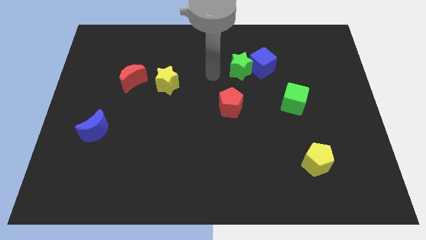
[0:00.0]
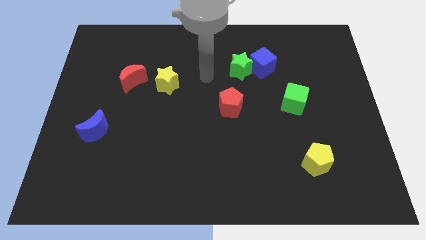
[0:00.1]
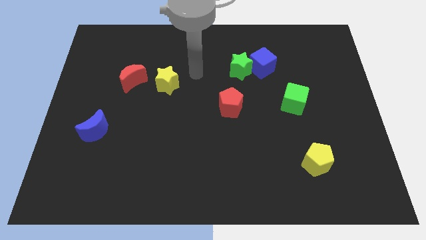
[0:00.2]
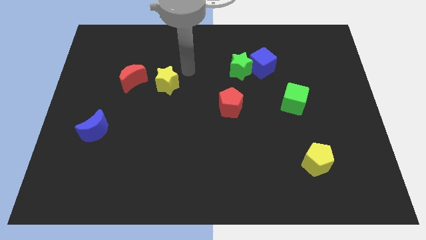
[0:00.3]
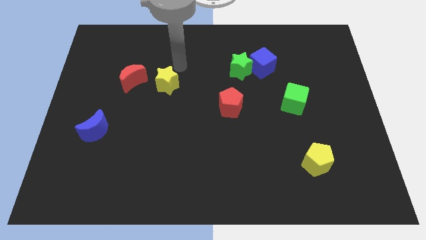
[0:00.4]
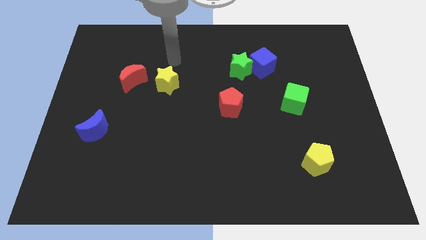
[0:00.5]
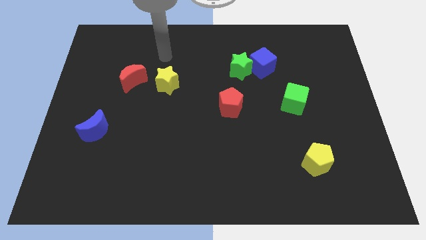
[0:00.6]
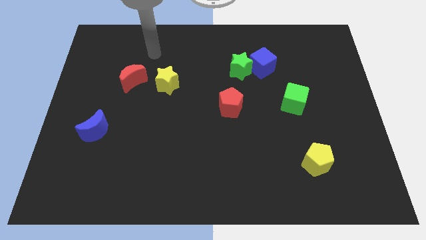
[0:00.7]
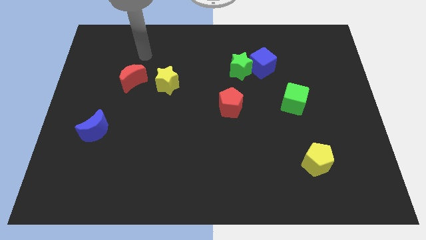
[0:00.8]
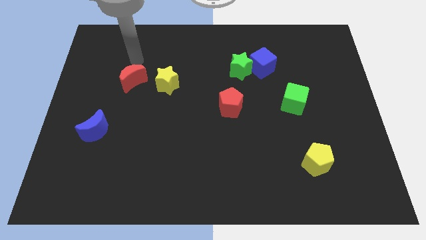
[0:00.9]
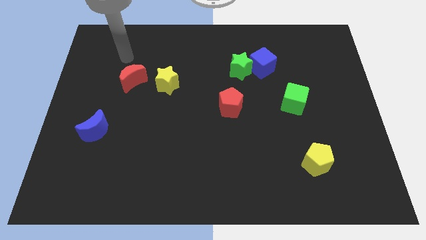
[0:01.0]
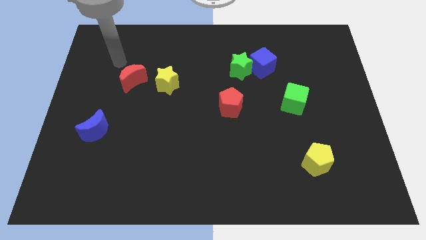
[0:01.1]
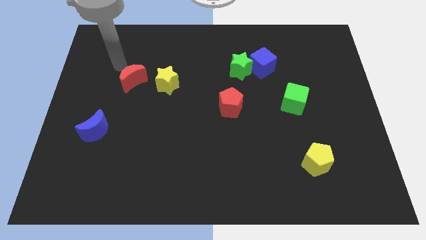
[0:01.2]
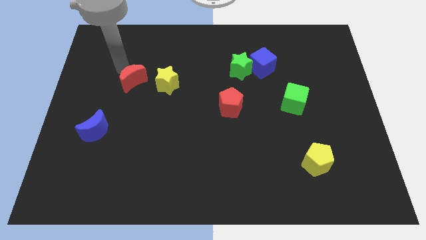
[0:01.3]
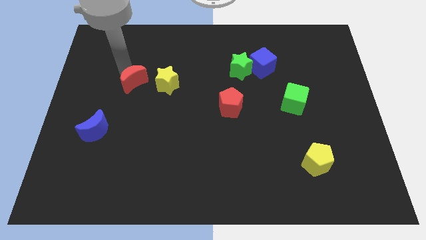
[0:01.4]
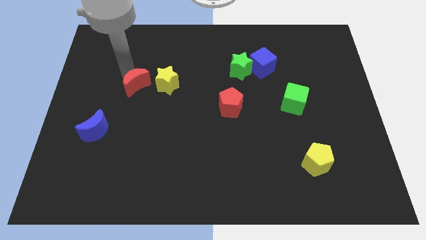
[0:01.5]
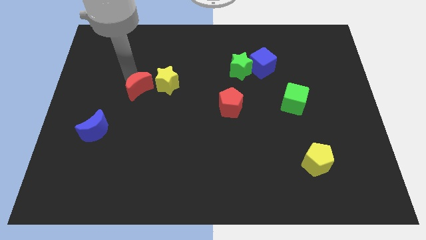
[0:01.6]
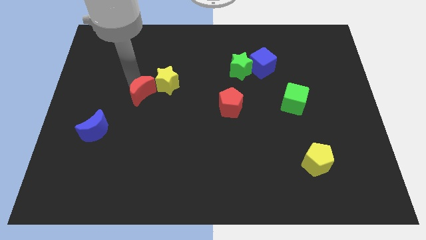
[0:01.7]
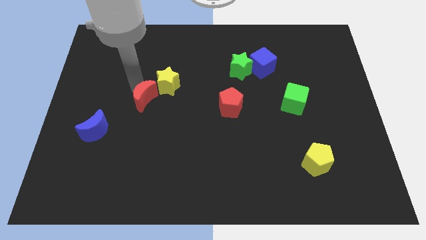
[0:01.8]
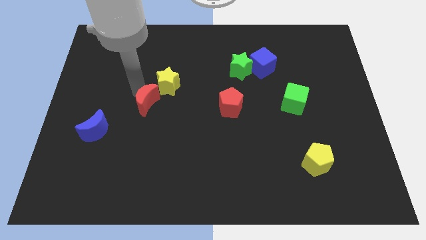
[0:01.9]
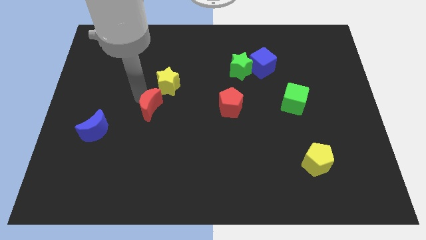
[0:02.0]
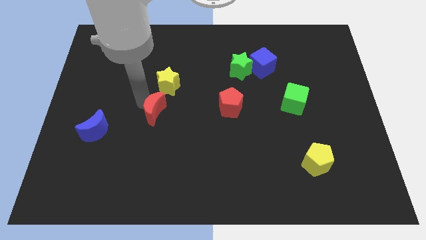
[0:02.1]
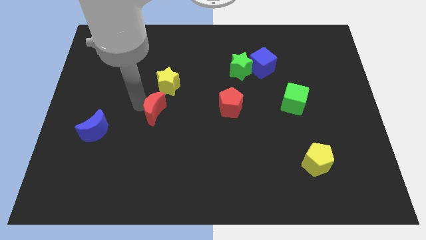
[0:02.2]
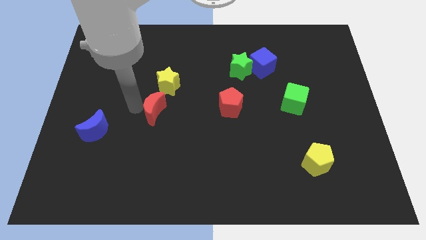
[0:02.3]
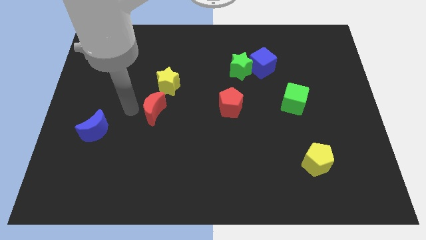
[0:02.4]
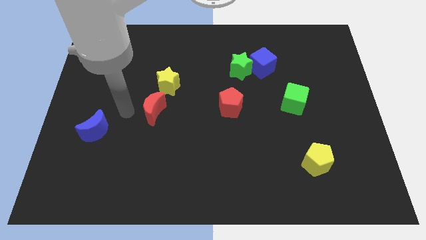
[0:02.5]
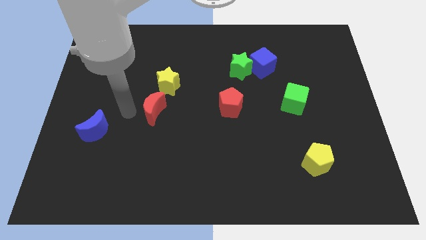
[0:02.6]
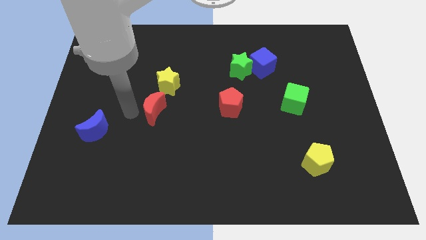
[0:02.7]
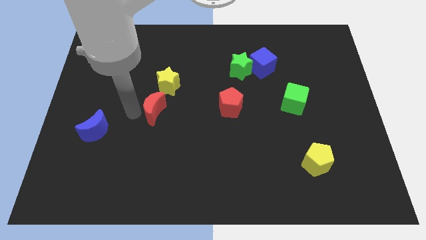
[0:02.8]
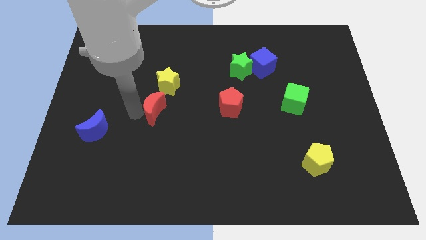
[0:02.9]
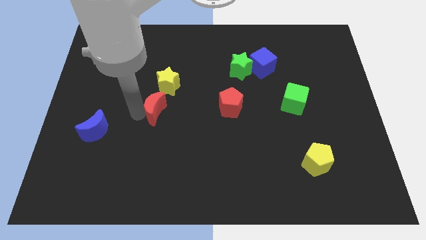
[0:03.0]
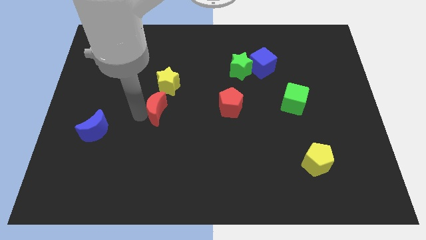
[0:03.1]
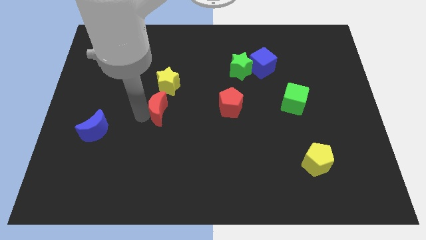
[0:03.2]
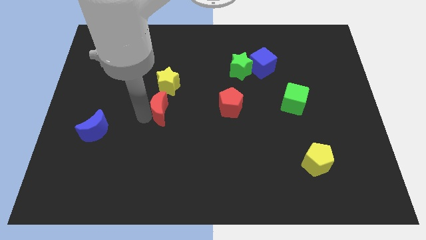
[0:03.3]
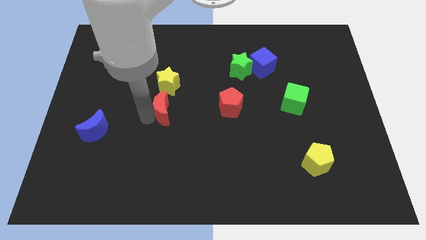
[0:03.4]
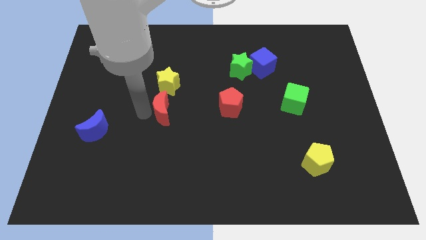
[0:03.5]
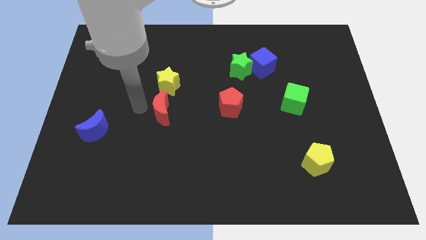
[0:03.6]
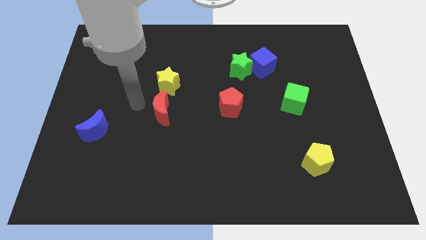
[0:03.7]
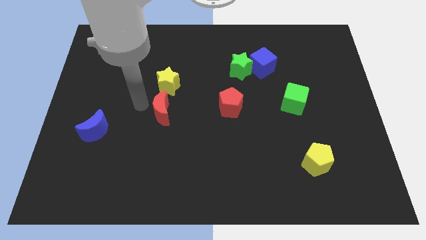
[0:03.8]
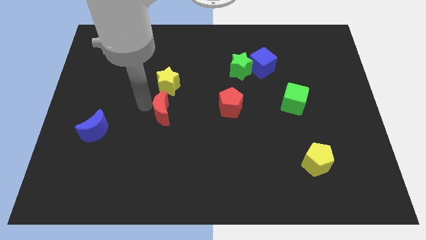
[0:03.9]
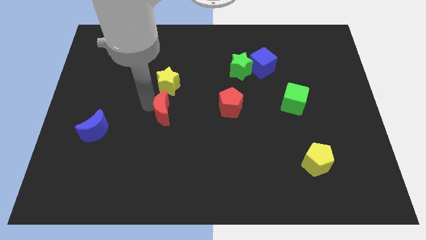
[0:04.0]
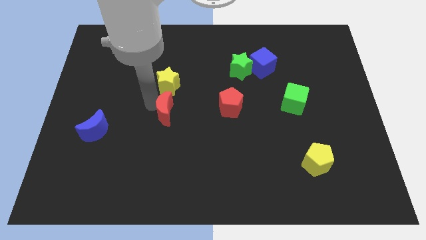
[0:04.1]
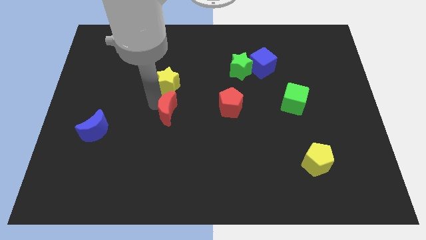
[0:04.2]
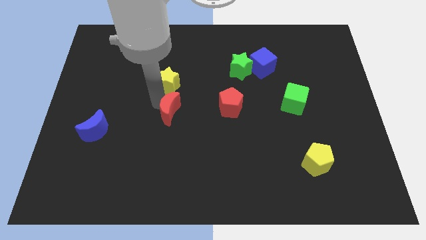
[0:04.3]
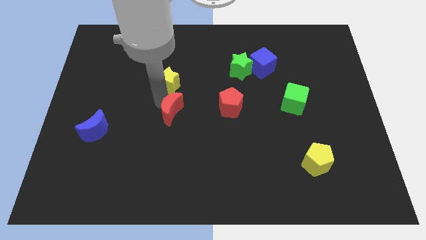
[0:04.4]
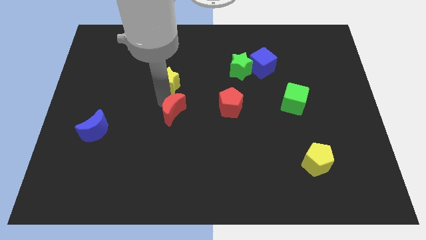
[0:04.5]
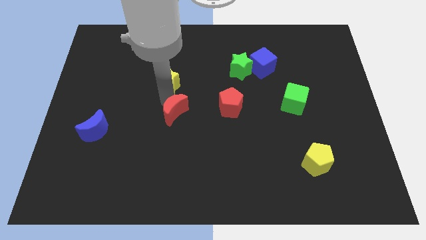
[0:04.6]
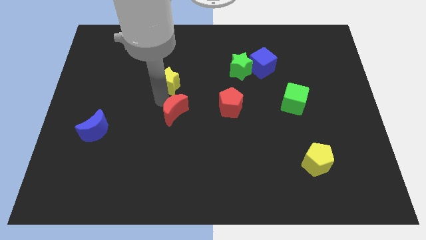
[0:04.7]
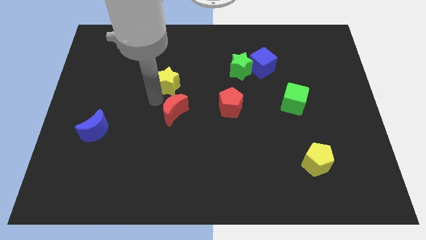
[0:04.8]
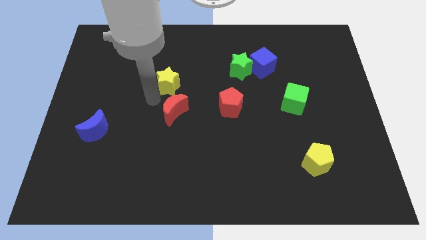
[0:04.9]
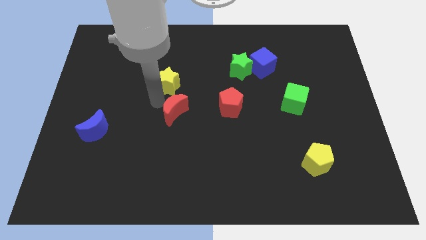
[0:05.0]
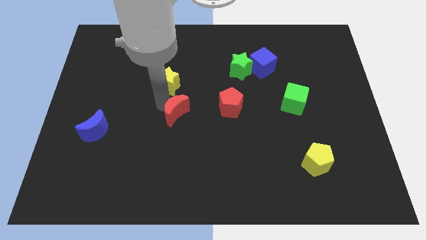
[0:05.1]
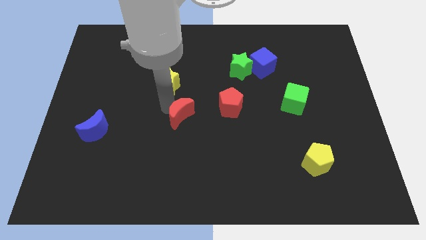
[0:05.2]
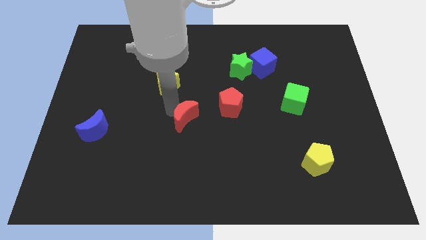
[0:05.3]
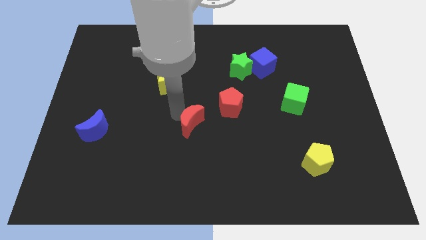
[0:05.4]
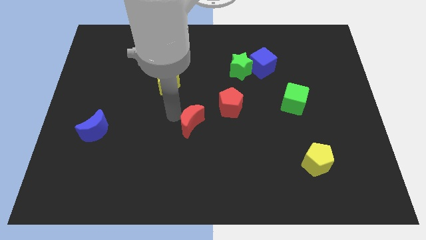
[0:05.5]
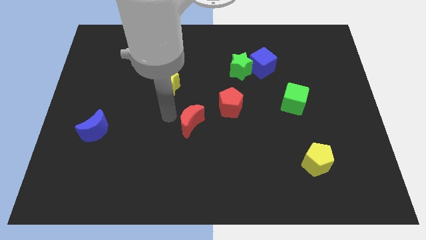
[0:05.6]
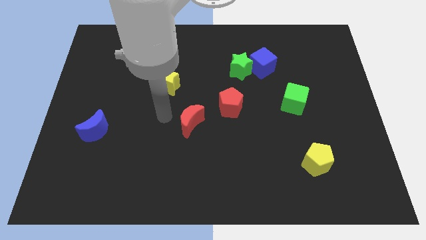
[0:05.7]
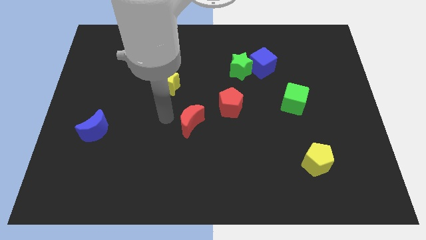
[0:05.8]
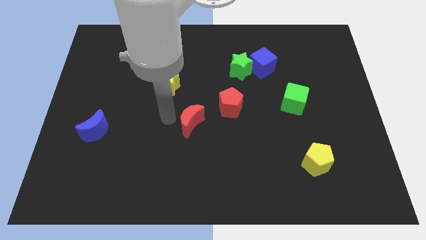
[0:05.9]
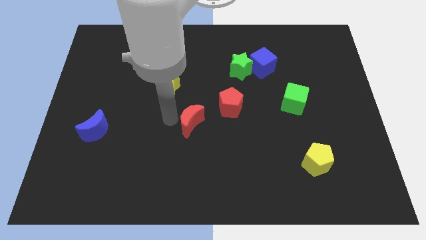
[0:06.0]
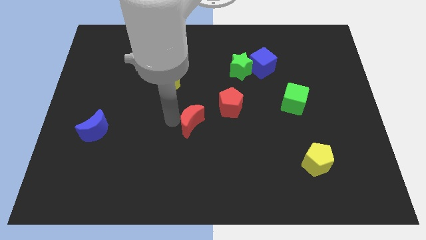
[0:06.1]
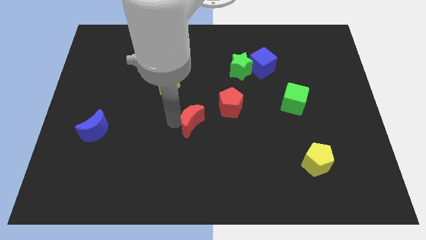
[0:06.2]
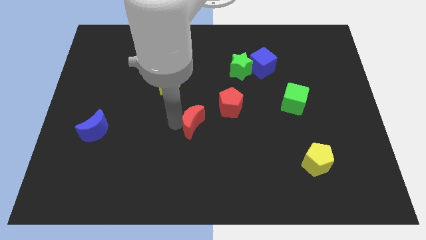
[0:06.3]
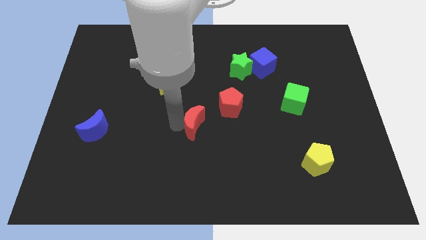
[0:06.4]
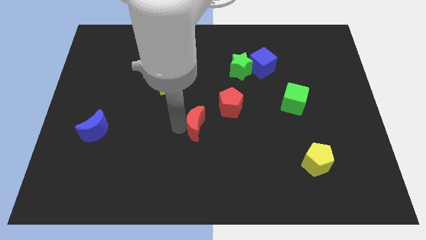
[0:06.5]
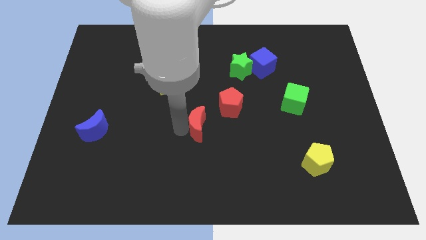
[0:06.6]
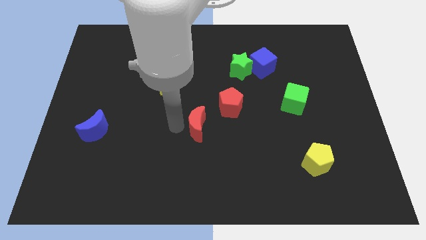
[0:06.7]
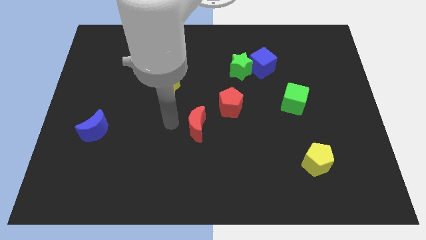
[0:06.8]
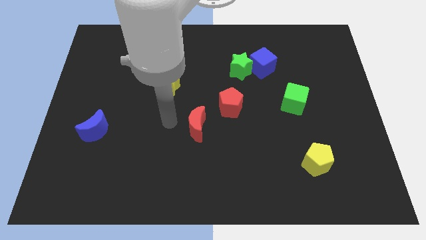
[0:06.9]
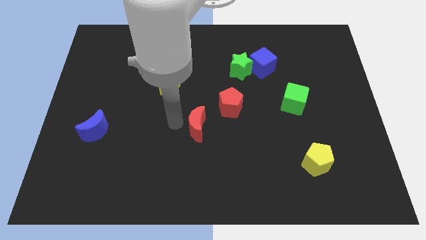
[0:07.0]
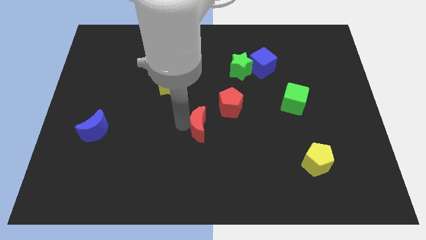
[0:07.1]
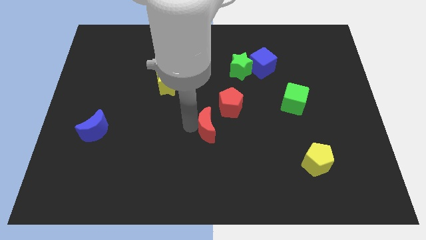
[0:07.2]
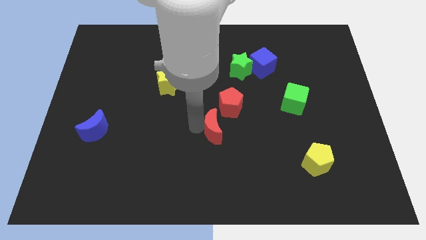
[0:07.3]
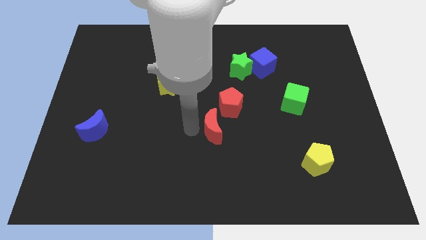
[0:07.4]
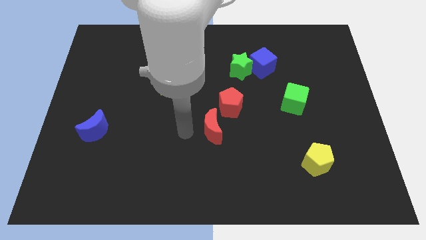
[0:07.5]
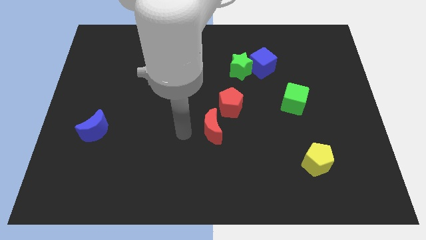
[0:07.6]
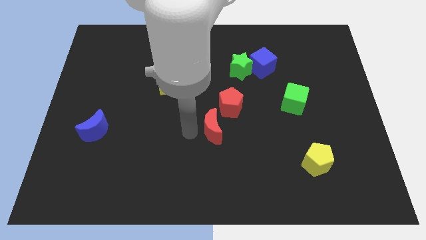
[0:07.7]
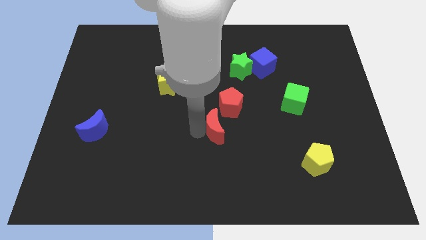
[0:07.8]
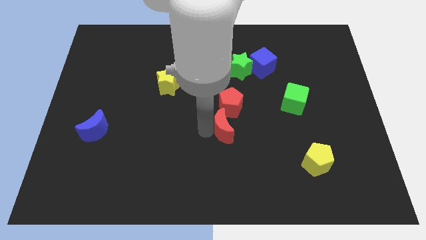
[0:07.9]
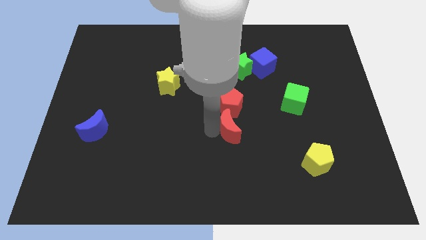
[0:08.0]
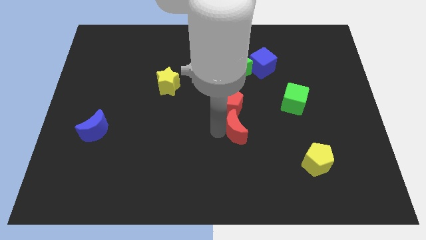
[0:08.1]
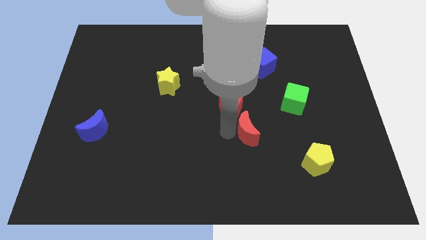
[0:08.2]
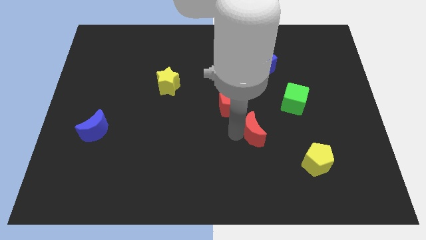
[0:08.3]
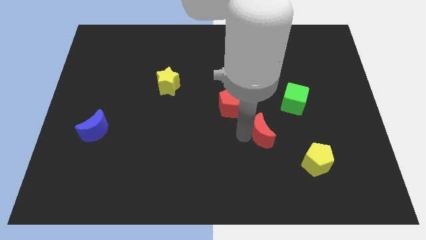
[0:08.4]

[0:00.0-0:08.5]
move the red moon to the bottom left of the green cube
